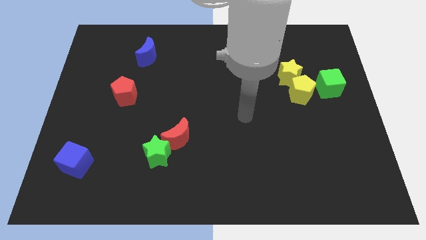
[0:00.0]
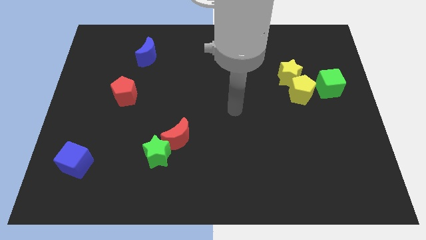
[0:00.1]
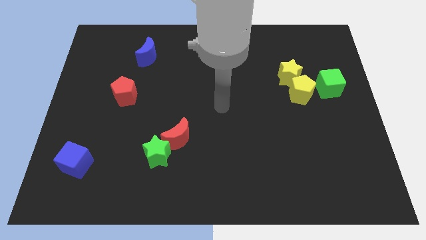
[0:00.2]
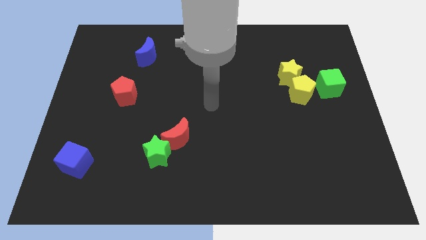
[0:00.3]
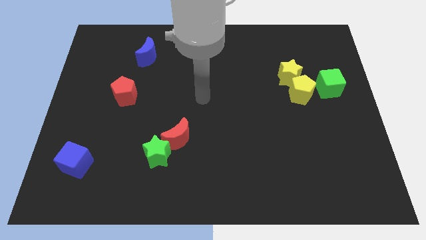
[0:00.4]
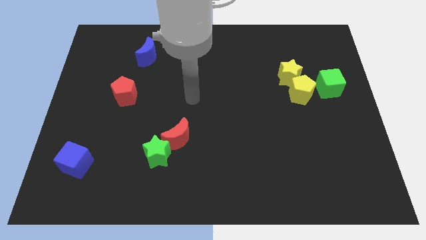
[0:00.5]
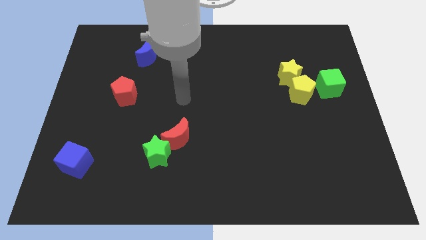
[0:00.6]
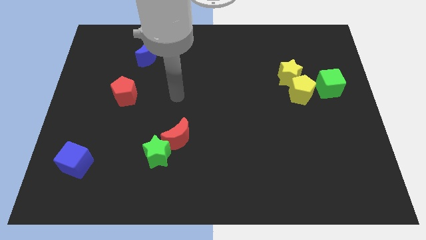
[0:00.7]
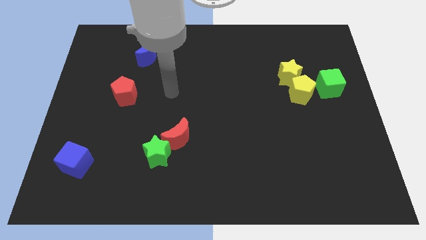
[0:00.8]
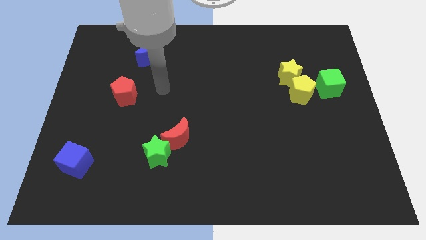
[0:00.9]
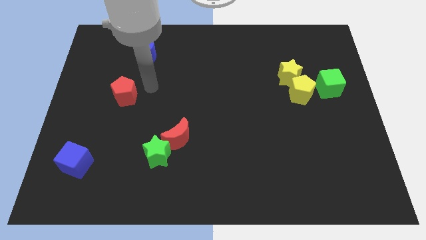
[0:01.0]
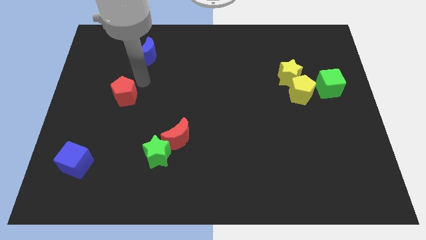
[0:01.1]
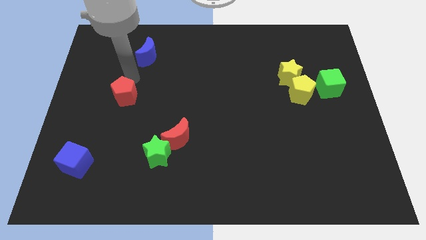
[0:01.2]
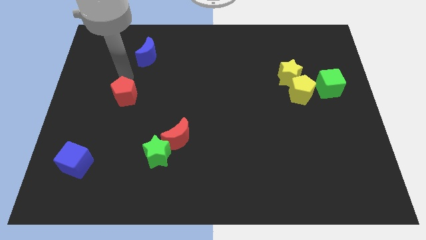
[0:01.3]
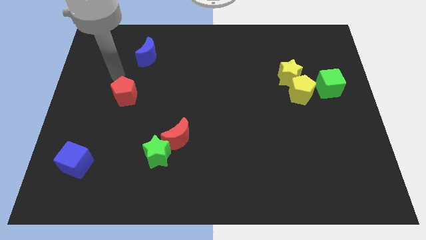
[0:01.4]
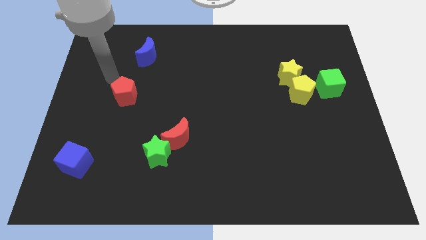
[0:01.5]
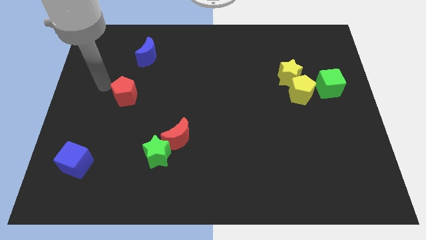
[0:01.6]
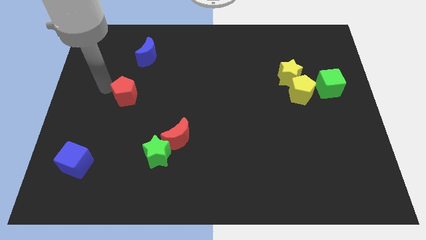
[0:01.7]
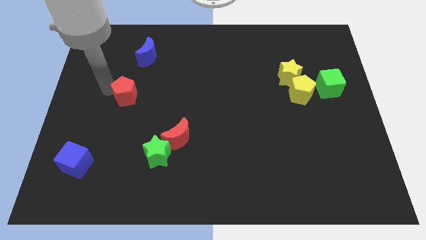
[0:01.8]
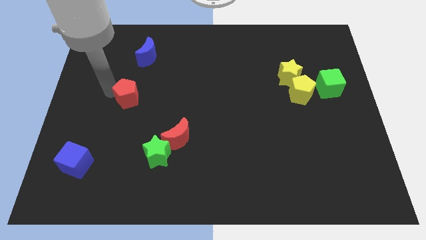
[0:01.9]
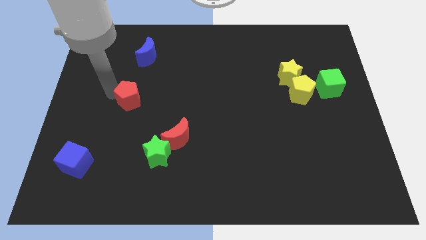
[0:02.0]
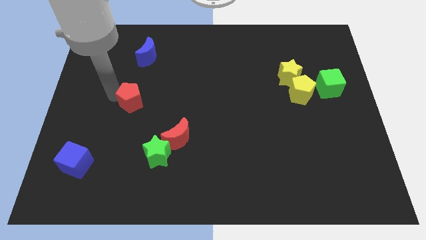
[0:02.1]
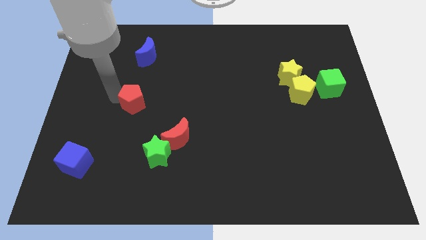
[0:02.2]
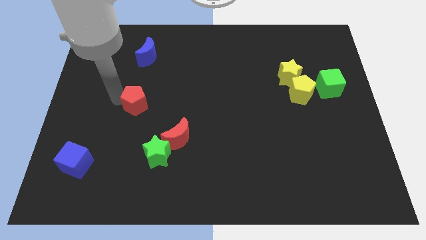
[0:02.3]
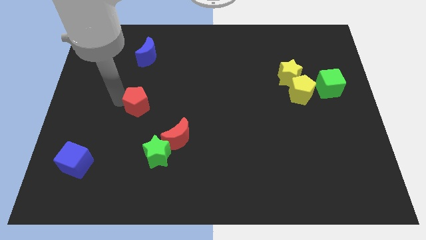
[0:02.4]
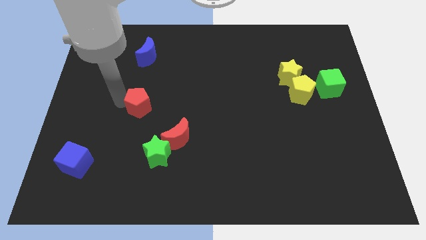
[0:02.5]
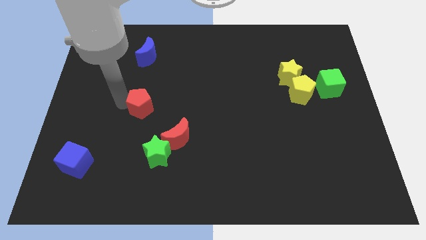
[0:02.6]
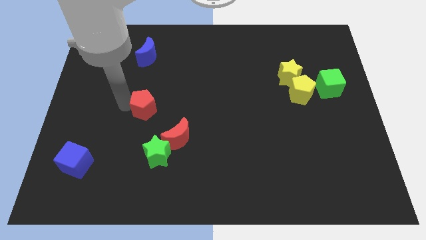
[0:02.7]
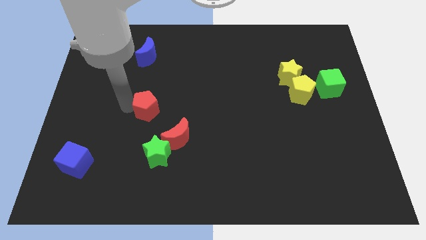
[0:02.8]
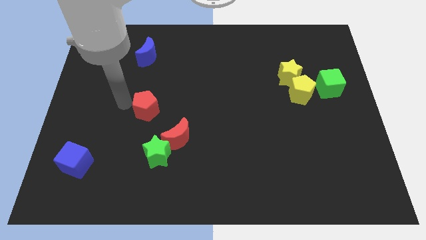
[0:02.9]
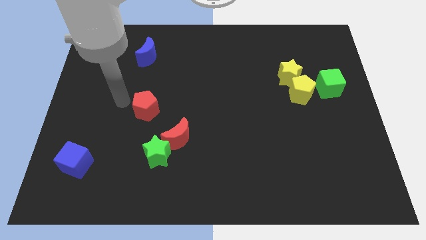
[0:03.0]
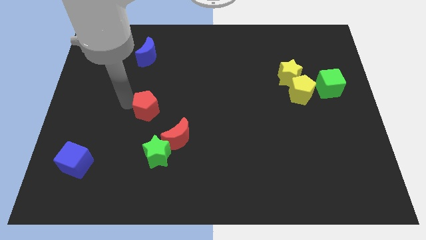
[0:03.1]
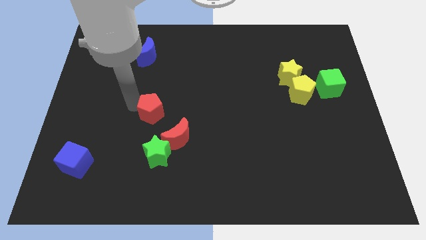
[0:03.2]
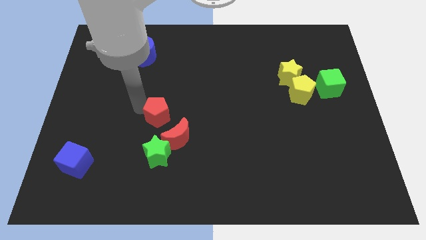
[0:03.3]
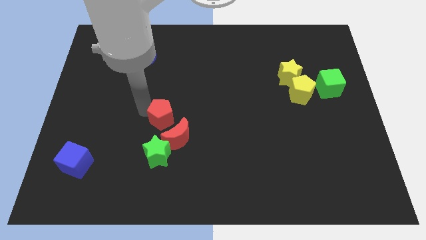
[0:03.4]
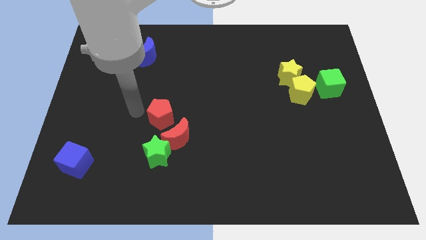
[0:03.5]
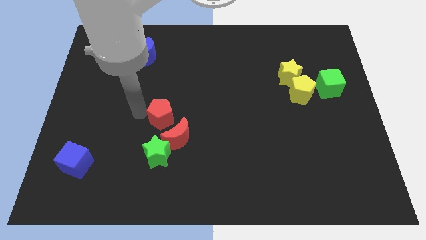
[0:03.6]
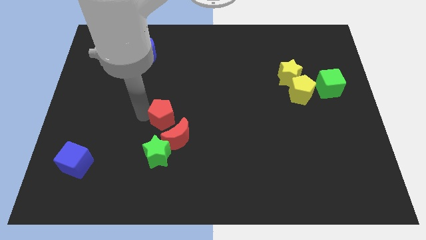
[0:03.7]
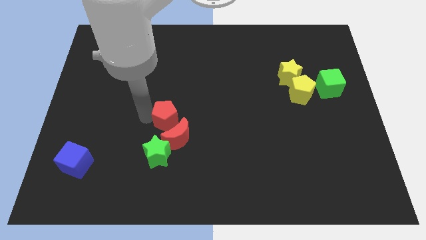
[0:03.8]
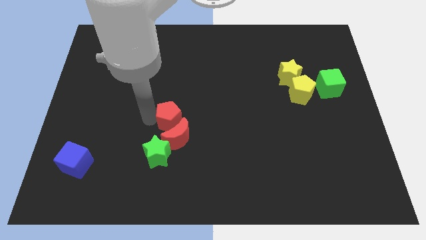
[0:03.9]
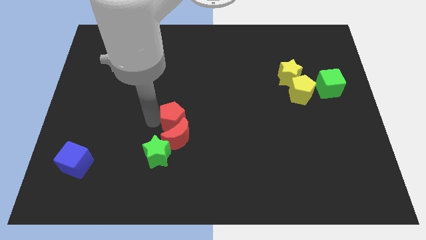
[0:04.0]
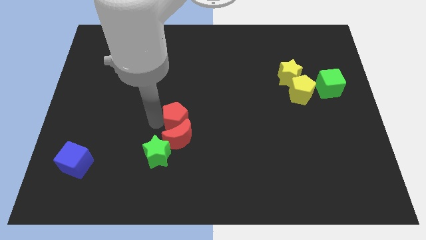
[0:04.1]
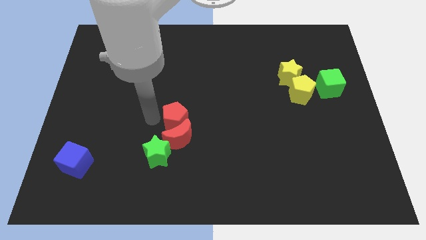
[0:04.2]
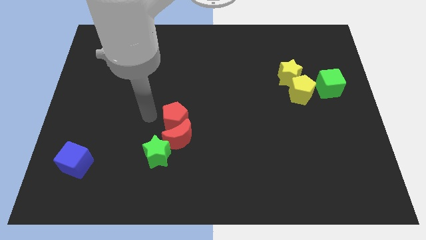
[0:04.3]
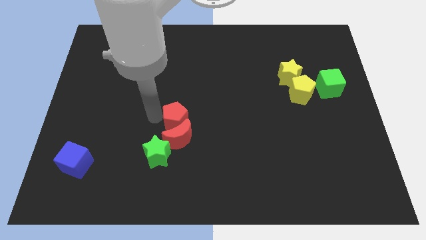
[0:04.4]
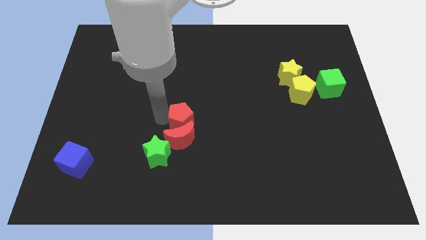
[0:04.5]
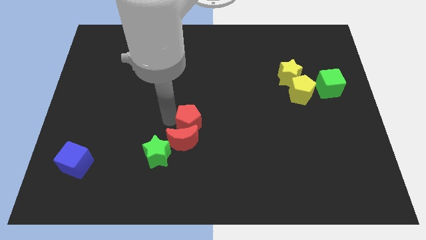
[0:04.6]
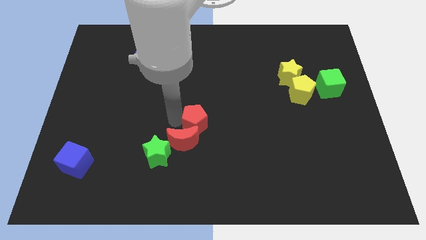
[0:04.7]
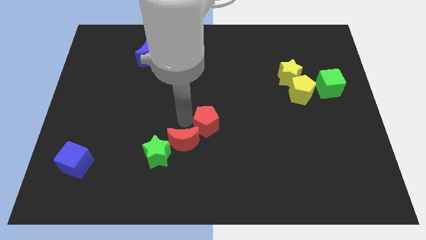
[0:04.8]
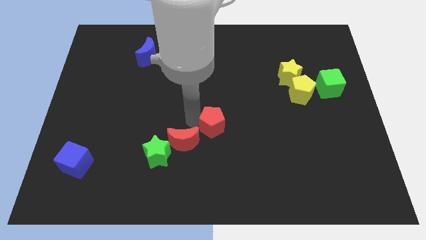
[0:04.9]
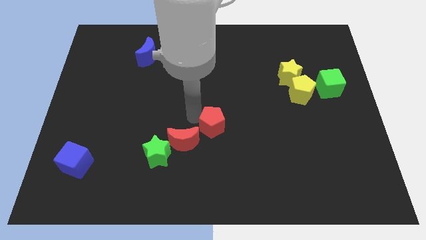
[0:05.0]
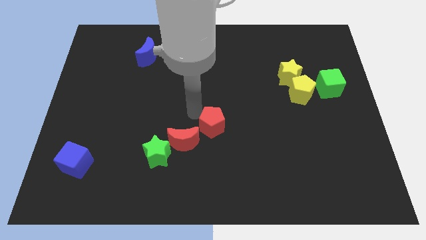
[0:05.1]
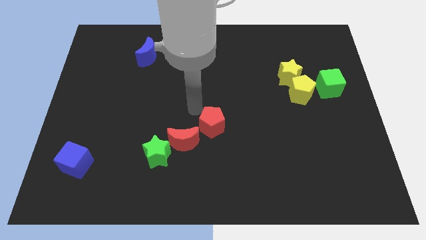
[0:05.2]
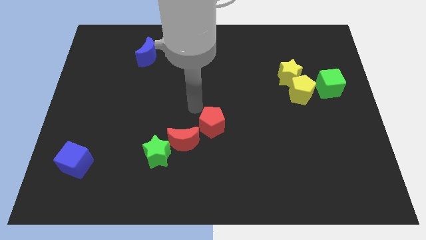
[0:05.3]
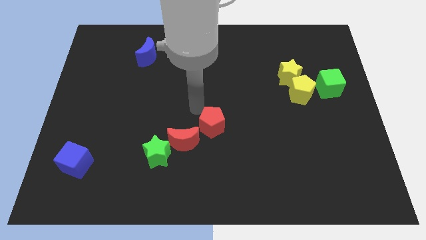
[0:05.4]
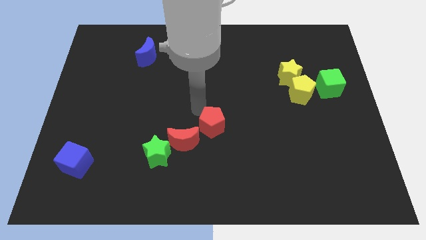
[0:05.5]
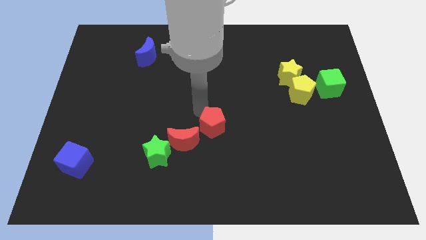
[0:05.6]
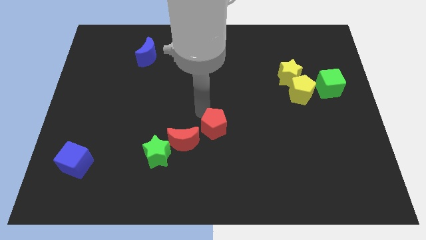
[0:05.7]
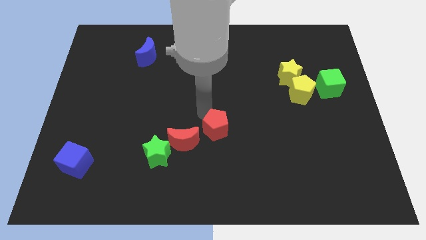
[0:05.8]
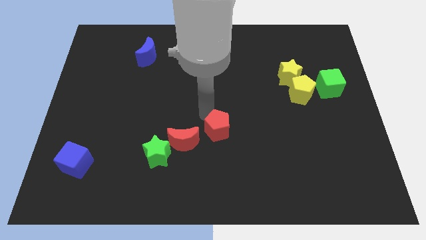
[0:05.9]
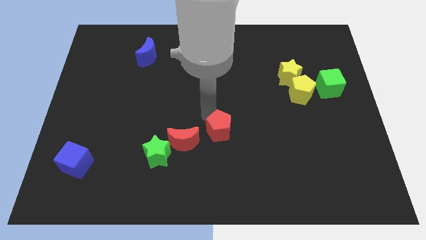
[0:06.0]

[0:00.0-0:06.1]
push the red pentagon diagonally down and to the right

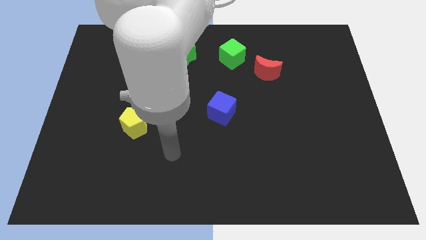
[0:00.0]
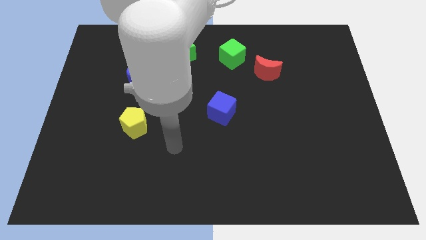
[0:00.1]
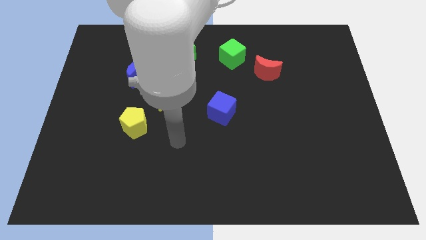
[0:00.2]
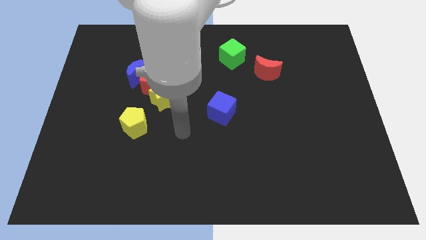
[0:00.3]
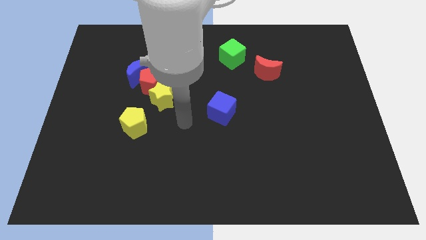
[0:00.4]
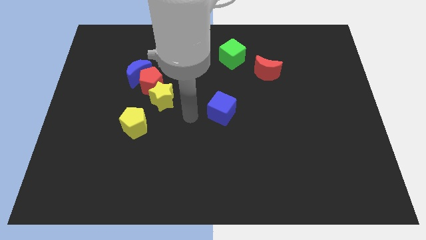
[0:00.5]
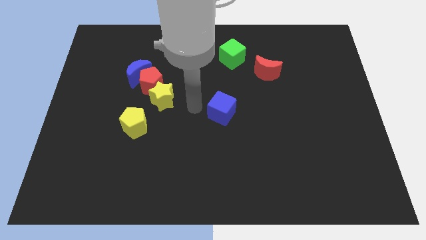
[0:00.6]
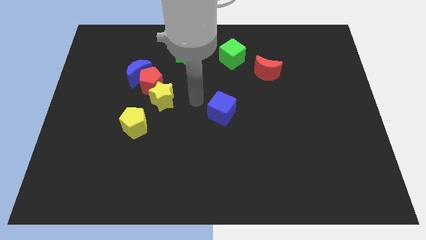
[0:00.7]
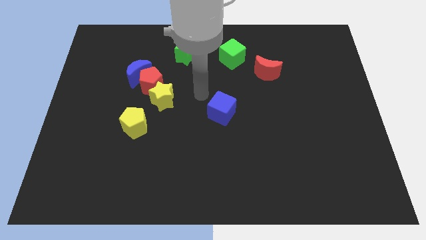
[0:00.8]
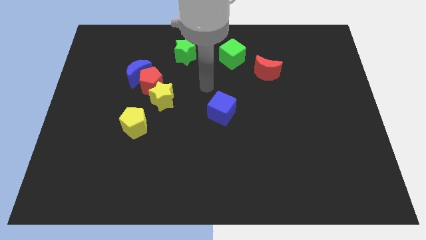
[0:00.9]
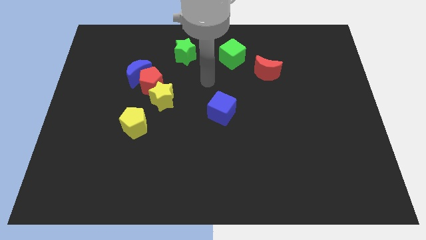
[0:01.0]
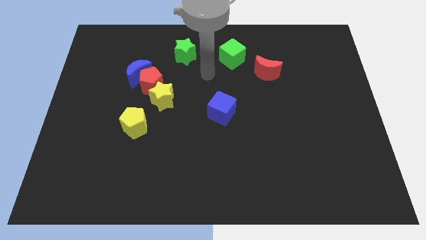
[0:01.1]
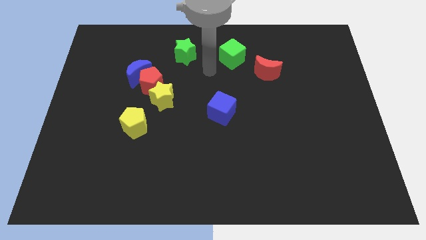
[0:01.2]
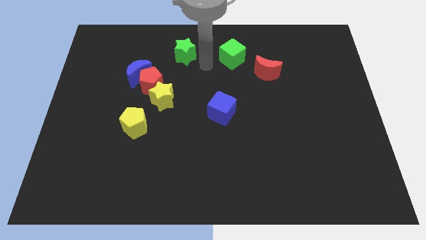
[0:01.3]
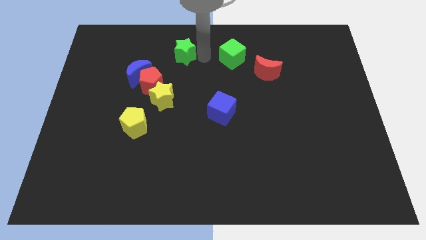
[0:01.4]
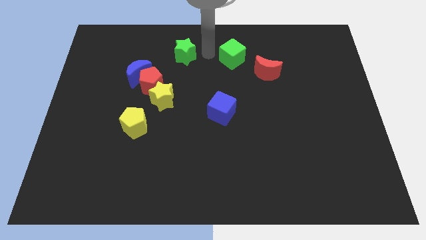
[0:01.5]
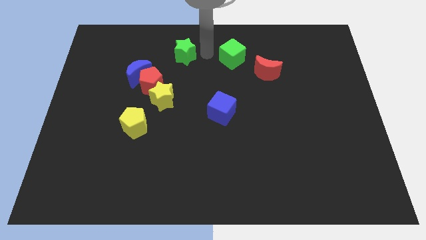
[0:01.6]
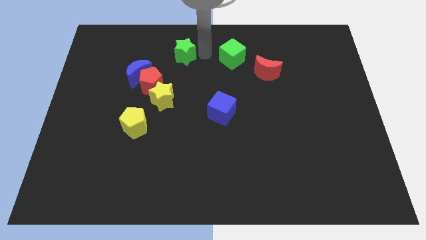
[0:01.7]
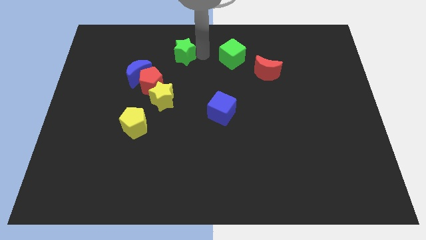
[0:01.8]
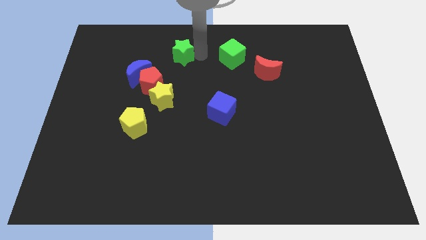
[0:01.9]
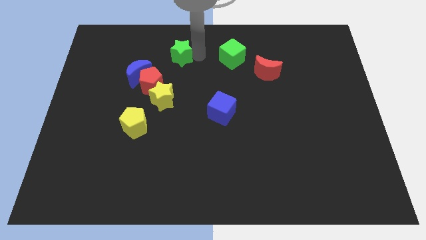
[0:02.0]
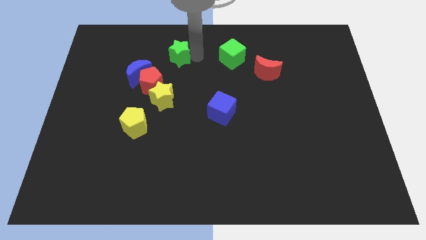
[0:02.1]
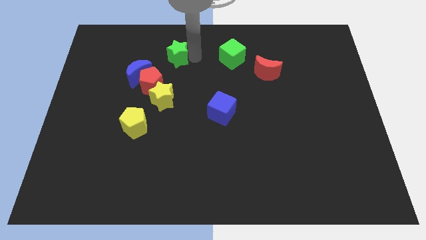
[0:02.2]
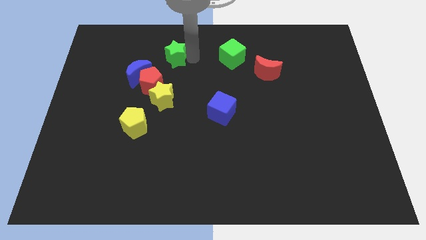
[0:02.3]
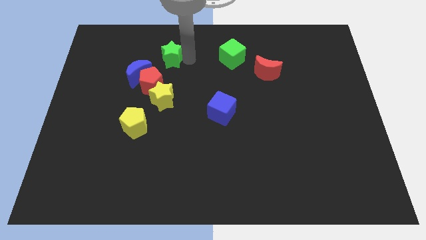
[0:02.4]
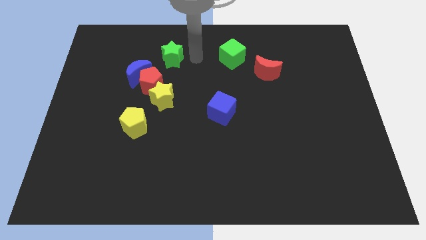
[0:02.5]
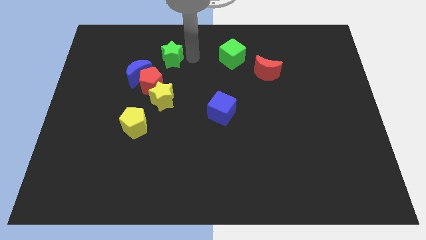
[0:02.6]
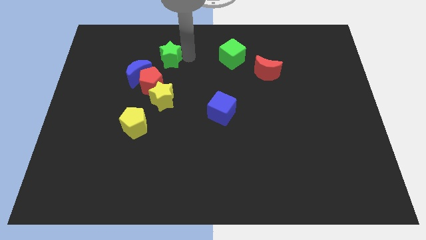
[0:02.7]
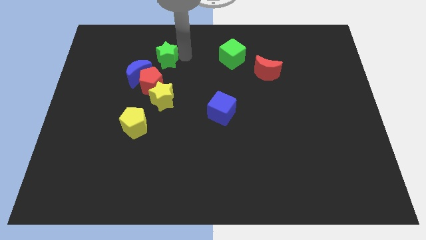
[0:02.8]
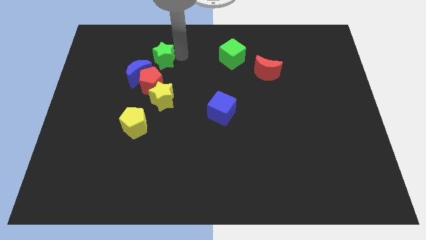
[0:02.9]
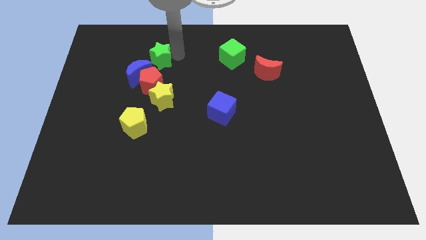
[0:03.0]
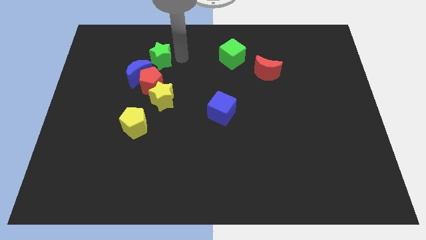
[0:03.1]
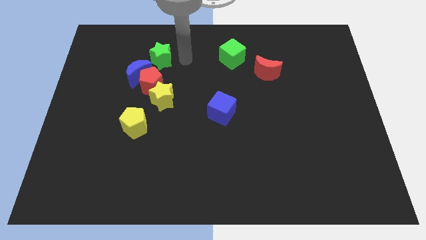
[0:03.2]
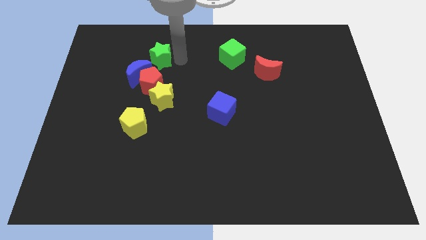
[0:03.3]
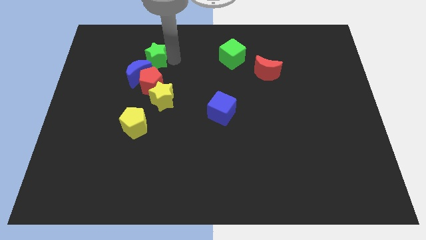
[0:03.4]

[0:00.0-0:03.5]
slightly push the green star left
